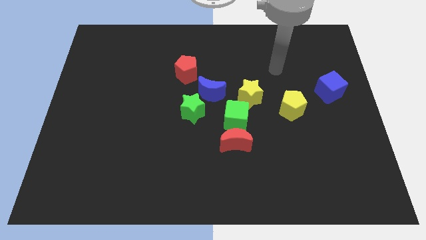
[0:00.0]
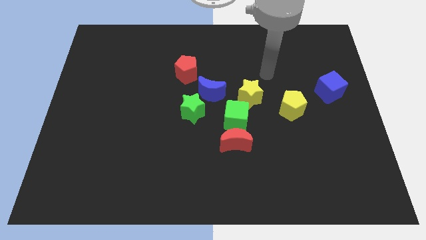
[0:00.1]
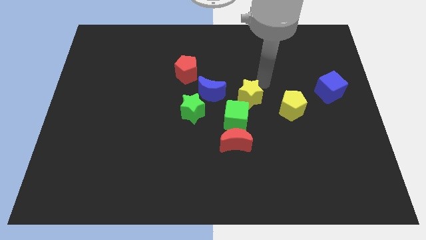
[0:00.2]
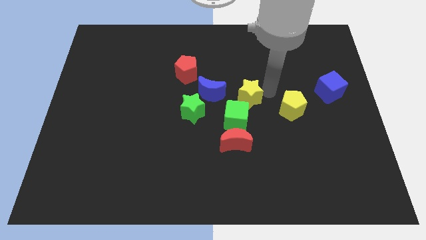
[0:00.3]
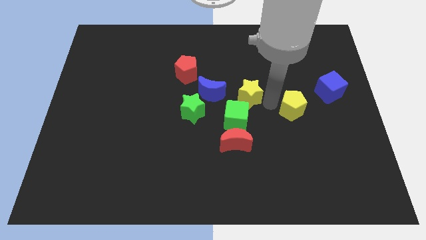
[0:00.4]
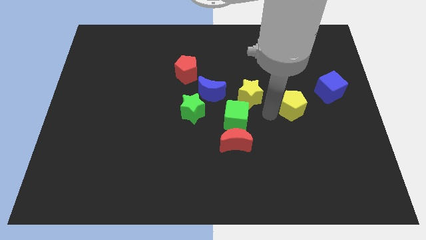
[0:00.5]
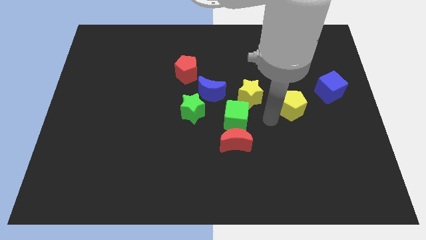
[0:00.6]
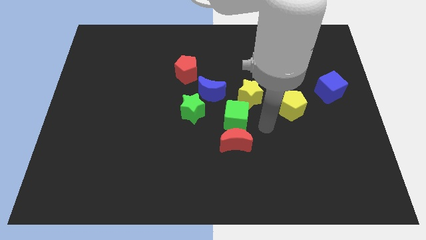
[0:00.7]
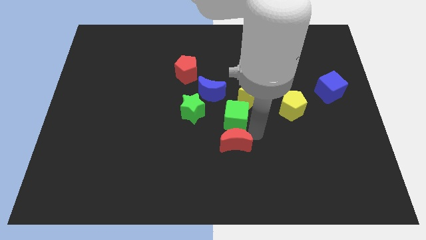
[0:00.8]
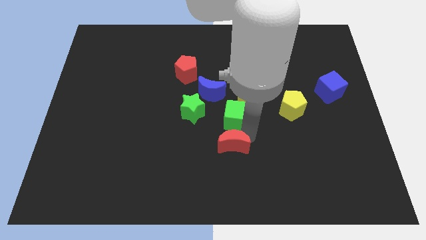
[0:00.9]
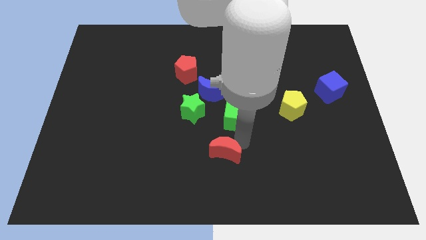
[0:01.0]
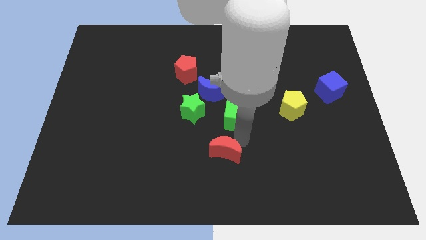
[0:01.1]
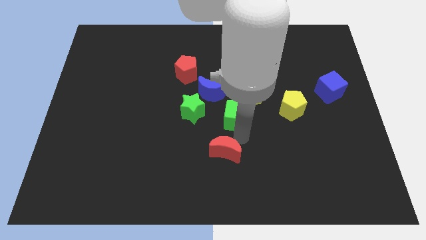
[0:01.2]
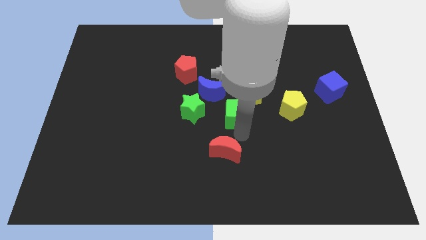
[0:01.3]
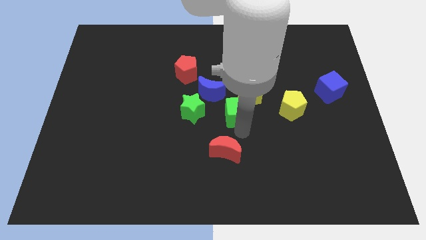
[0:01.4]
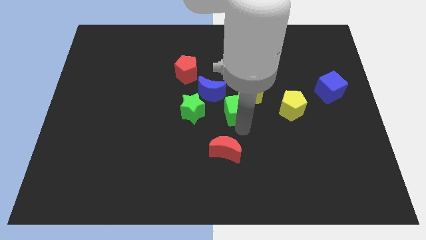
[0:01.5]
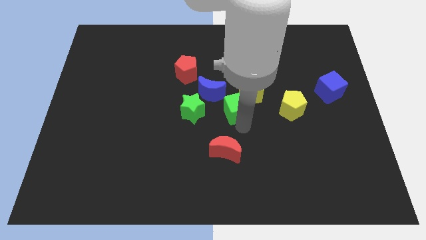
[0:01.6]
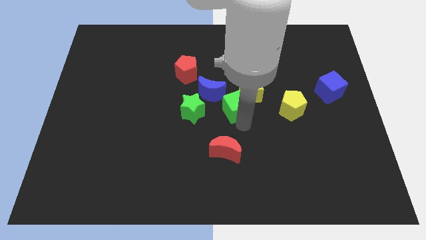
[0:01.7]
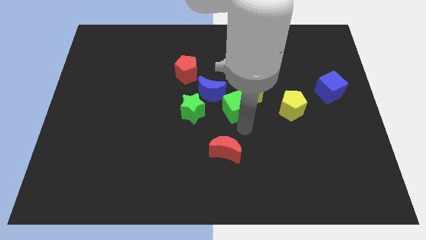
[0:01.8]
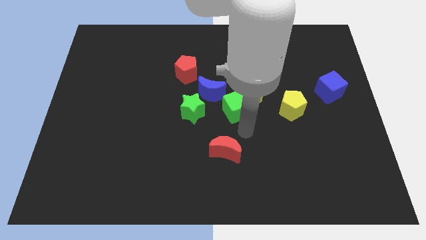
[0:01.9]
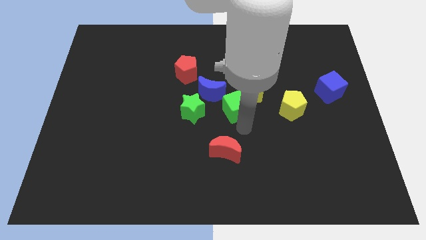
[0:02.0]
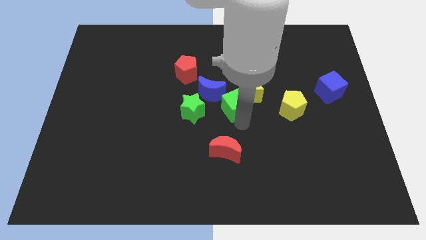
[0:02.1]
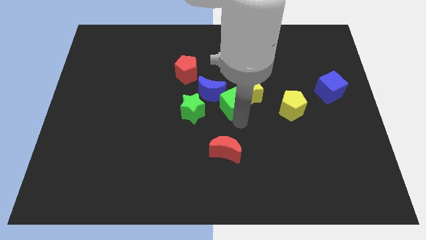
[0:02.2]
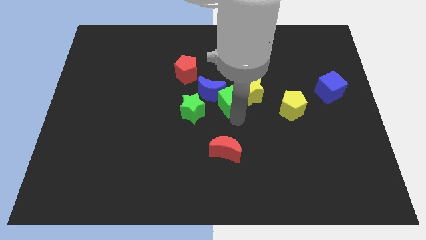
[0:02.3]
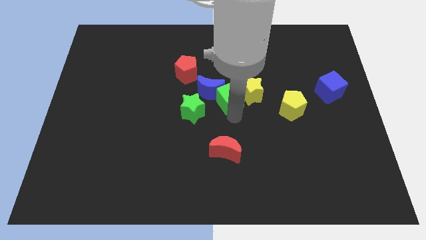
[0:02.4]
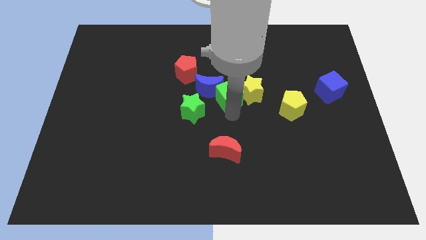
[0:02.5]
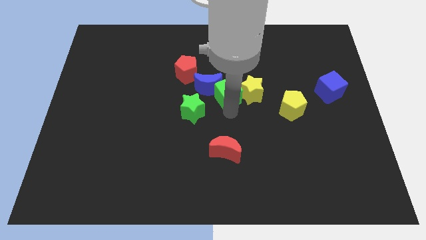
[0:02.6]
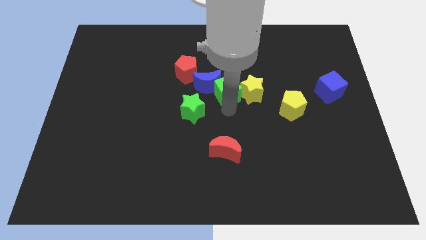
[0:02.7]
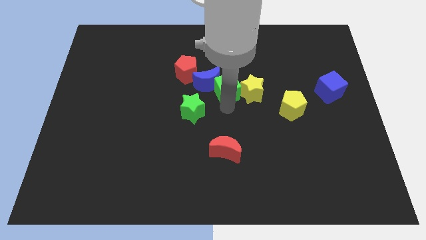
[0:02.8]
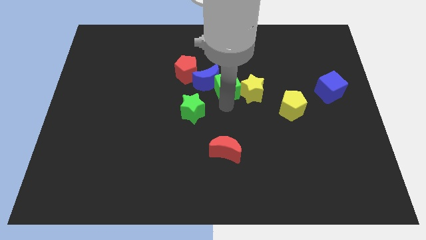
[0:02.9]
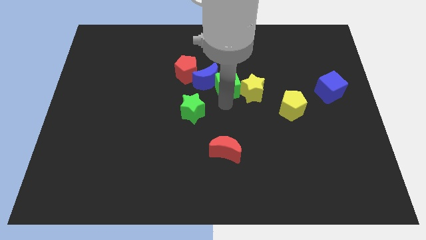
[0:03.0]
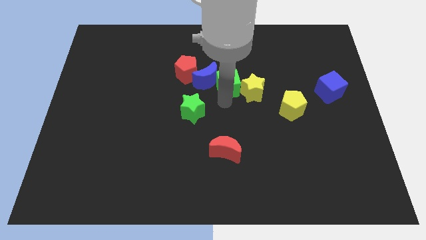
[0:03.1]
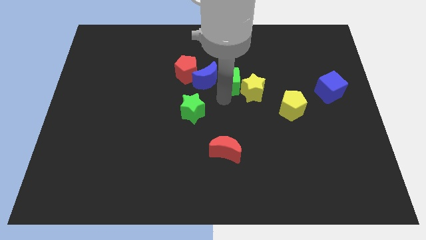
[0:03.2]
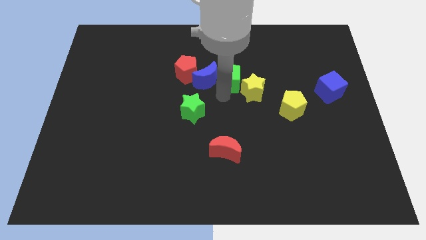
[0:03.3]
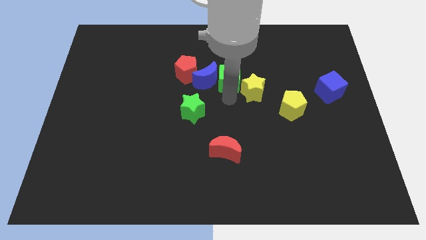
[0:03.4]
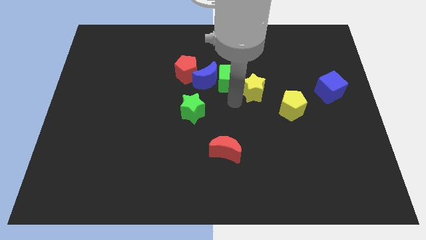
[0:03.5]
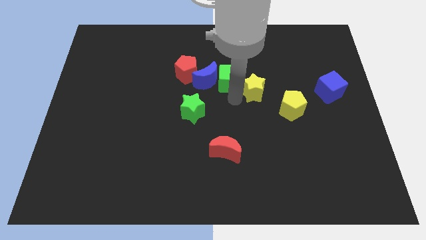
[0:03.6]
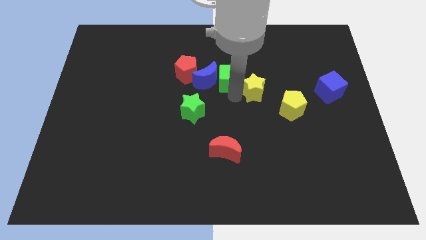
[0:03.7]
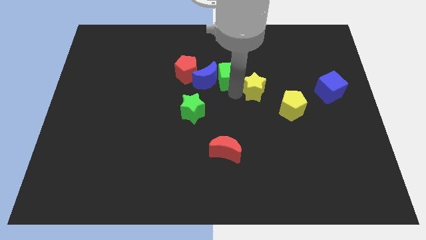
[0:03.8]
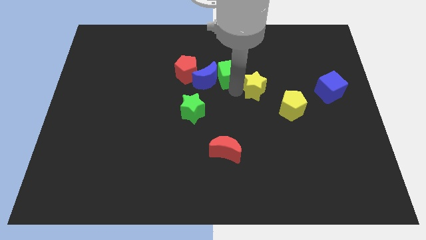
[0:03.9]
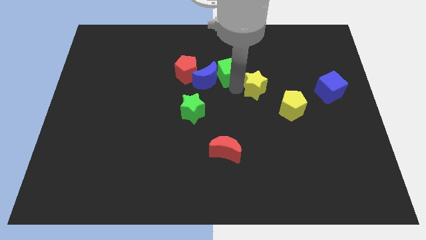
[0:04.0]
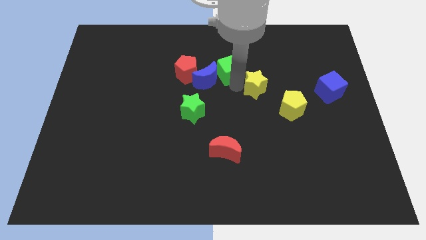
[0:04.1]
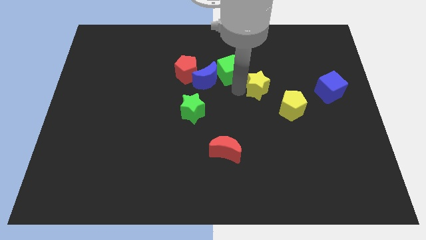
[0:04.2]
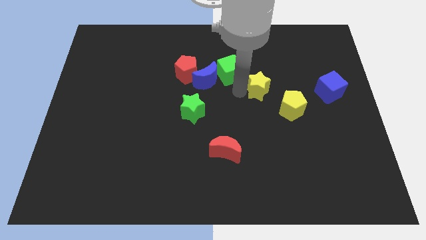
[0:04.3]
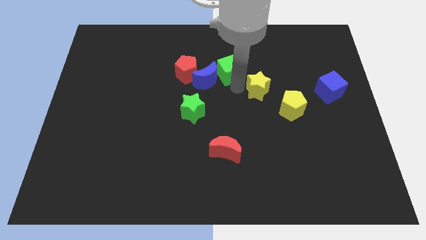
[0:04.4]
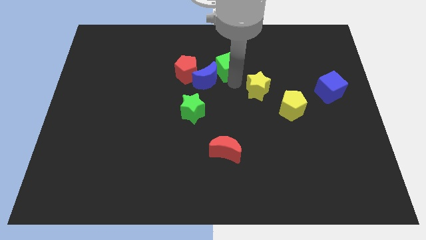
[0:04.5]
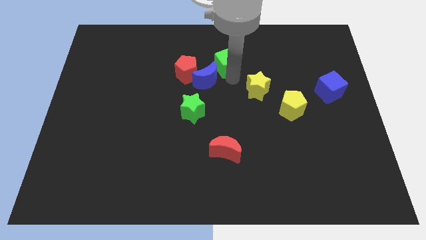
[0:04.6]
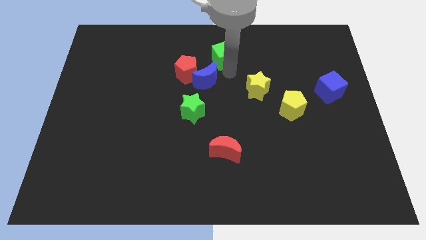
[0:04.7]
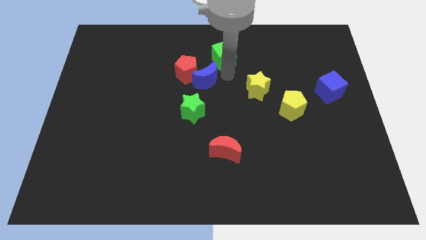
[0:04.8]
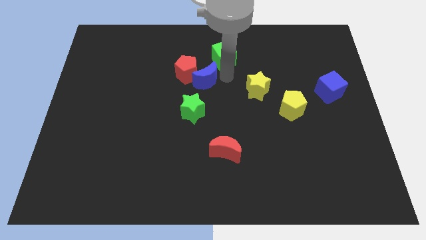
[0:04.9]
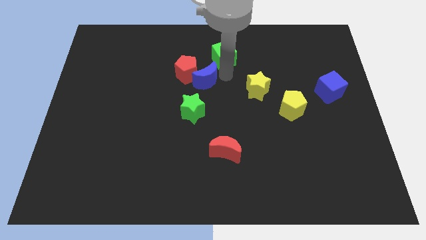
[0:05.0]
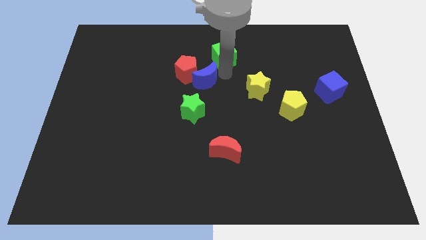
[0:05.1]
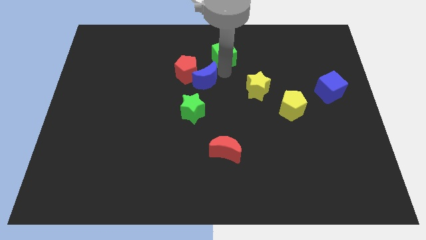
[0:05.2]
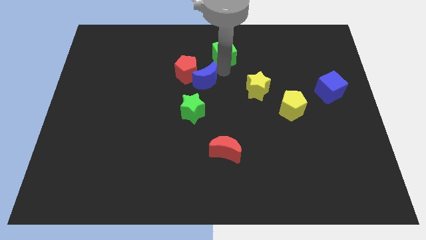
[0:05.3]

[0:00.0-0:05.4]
slide the green cube to the towards your base

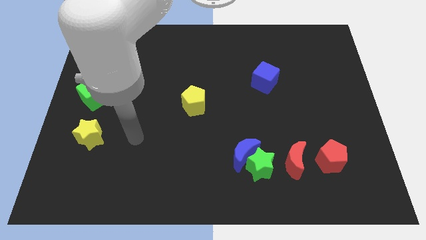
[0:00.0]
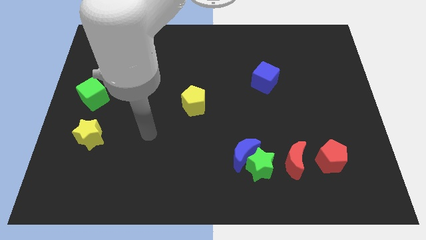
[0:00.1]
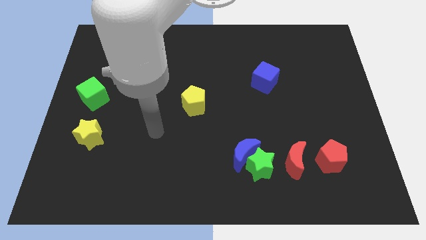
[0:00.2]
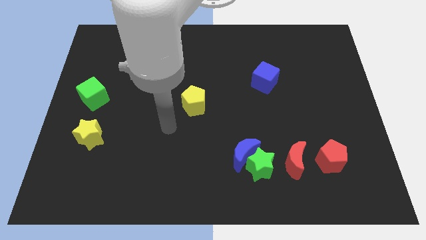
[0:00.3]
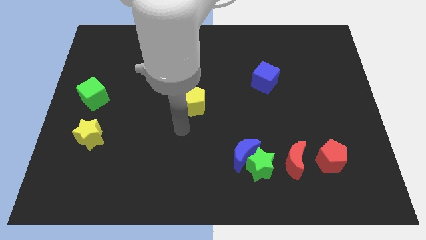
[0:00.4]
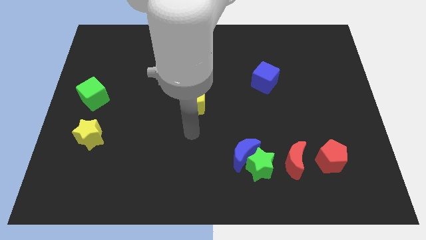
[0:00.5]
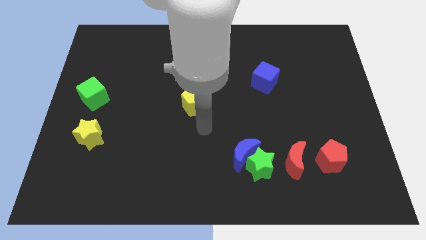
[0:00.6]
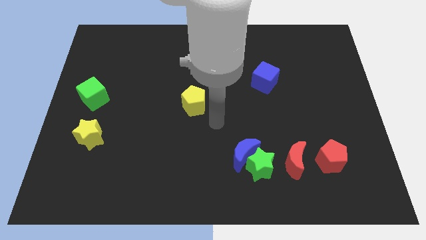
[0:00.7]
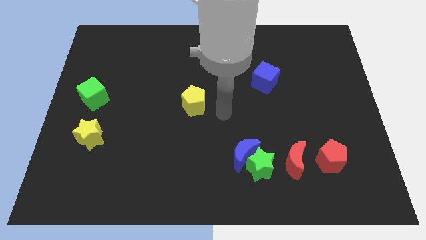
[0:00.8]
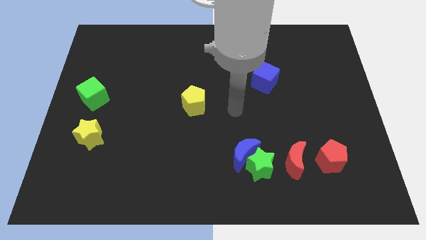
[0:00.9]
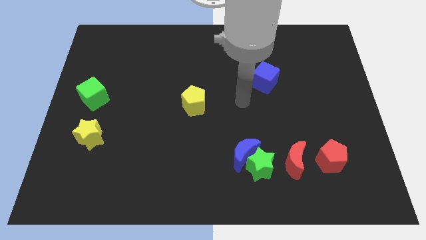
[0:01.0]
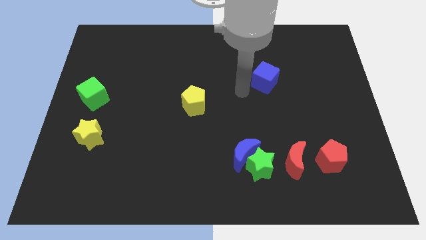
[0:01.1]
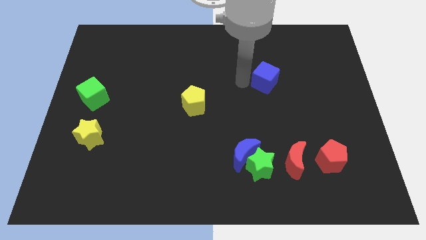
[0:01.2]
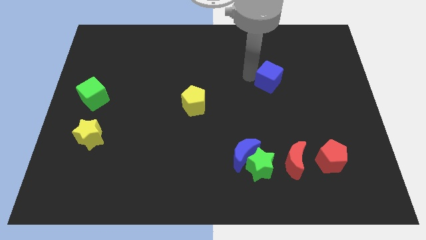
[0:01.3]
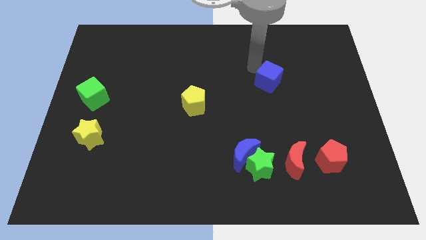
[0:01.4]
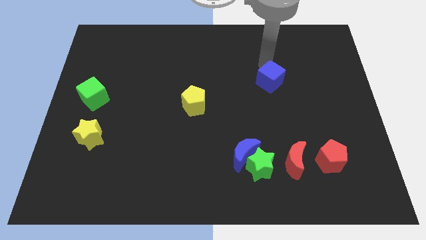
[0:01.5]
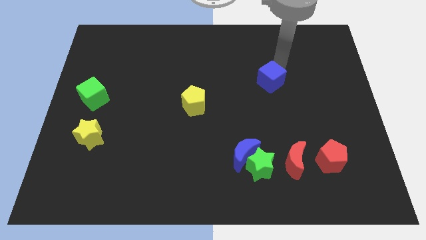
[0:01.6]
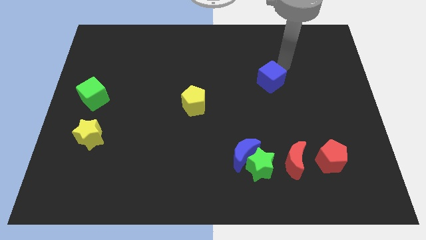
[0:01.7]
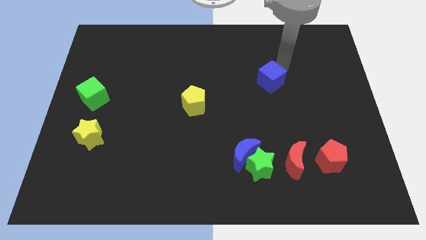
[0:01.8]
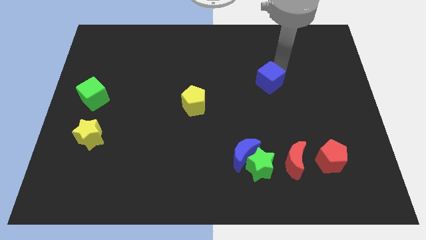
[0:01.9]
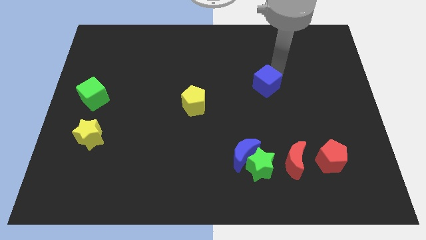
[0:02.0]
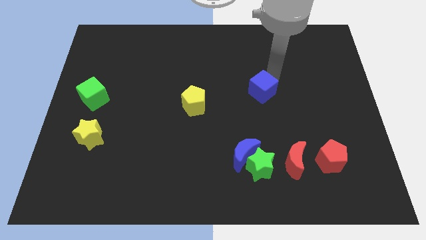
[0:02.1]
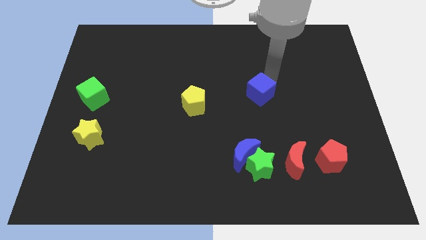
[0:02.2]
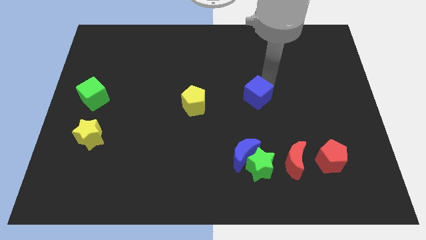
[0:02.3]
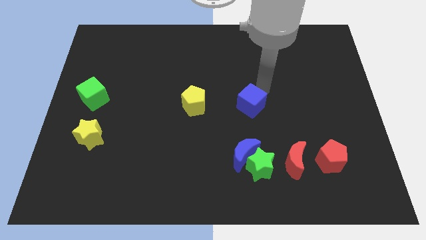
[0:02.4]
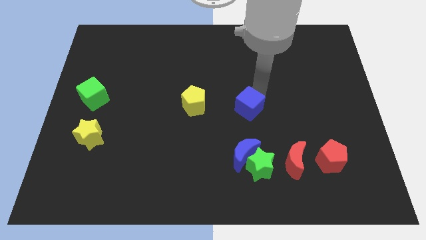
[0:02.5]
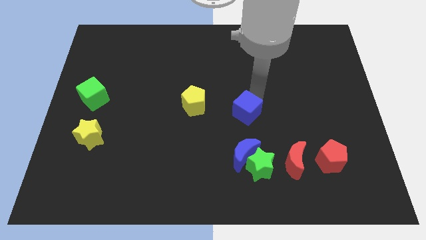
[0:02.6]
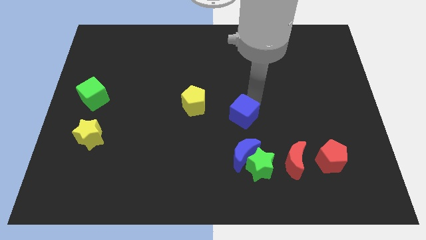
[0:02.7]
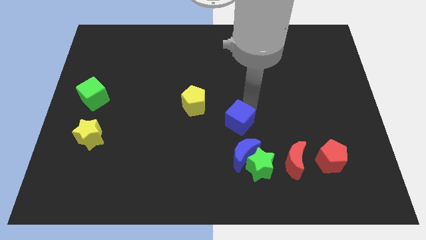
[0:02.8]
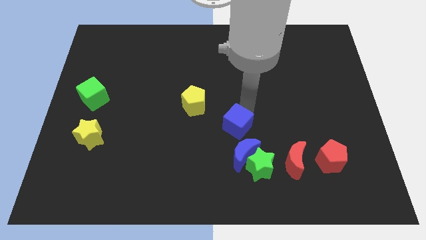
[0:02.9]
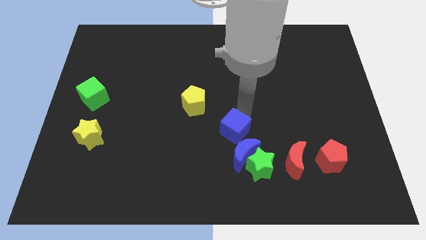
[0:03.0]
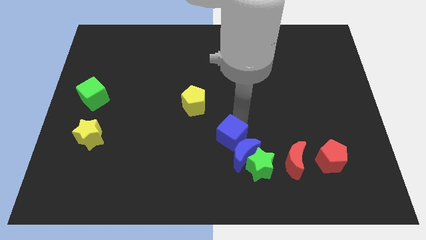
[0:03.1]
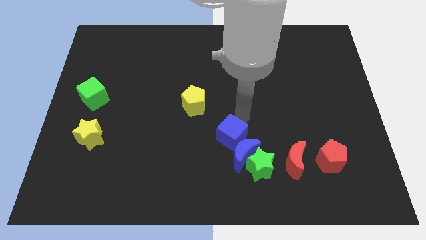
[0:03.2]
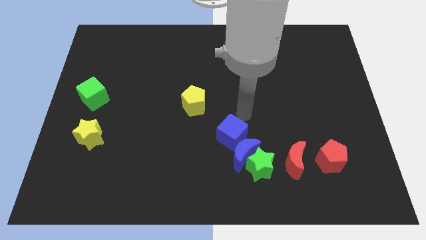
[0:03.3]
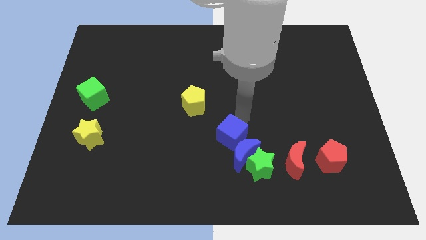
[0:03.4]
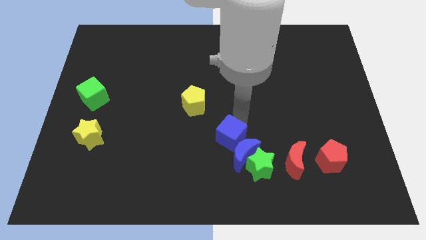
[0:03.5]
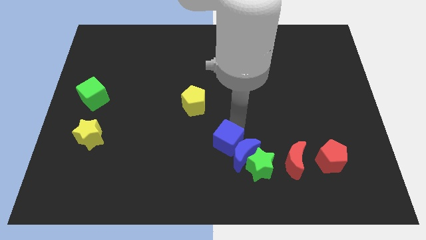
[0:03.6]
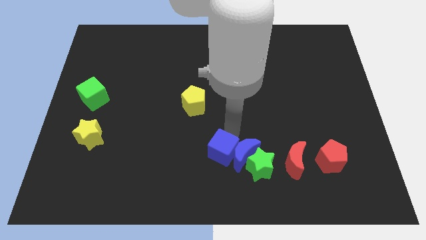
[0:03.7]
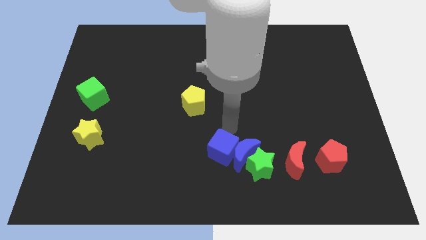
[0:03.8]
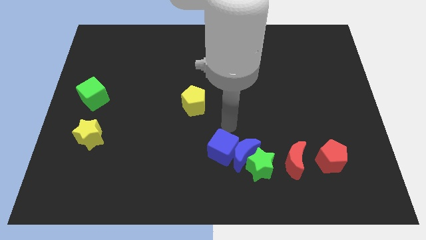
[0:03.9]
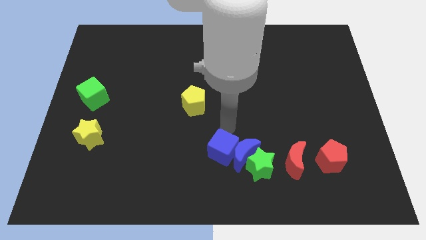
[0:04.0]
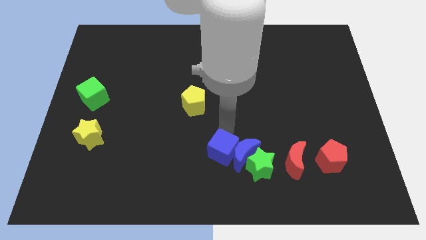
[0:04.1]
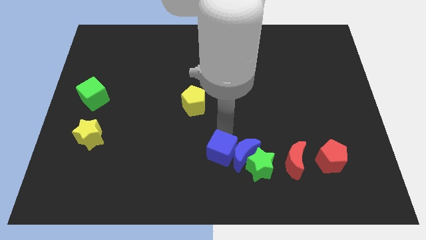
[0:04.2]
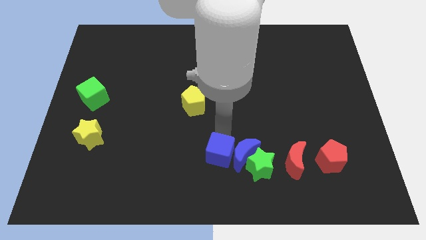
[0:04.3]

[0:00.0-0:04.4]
put the blue cube to the bottom
